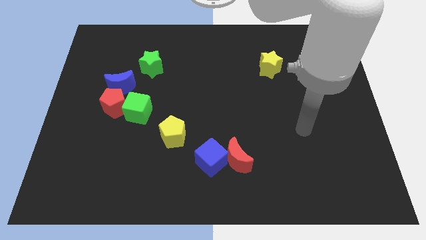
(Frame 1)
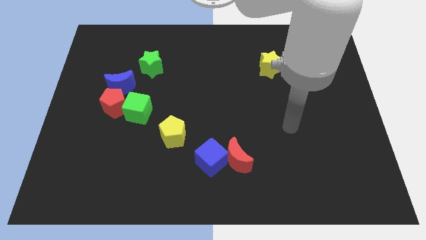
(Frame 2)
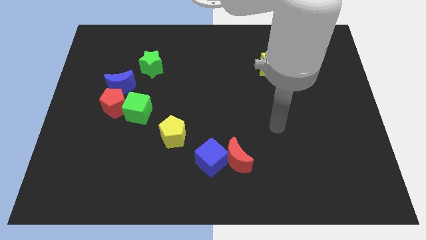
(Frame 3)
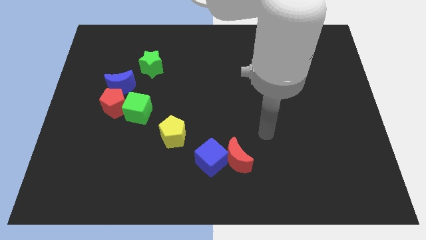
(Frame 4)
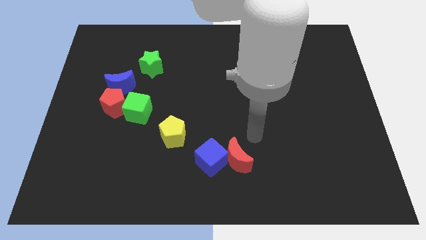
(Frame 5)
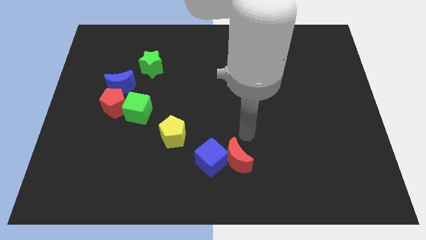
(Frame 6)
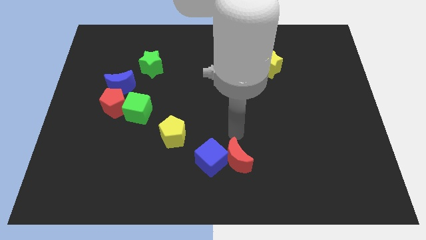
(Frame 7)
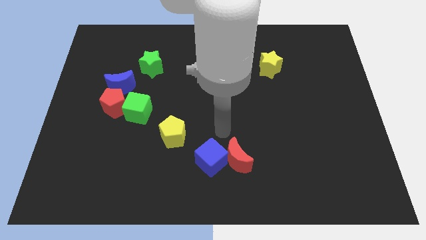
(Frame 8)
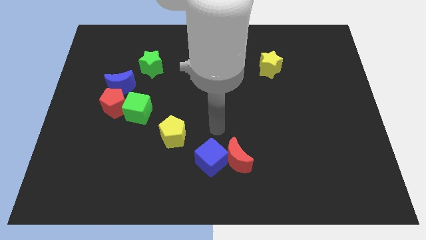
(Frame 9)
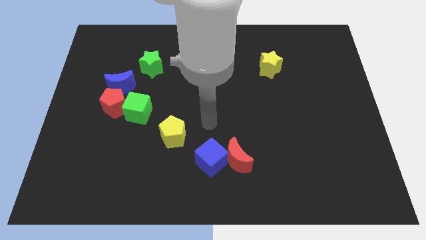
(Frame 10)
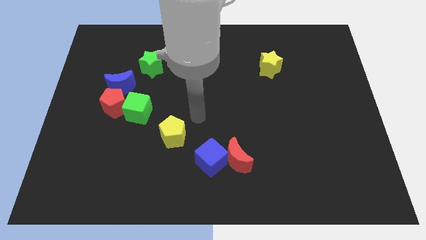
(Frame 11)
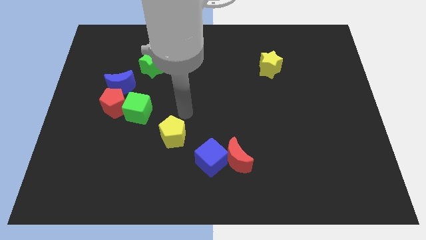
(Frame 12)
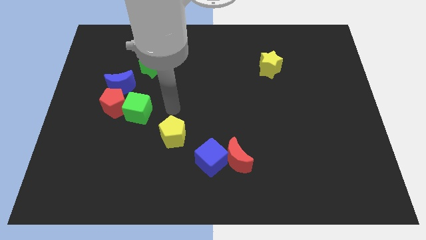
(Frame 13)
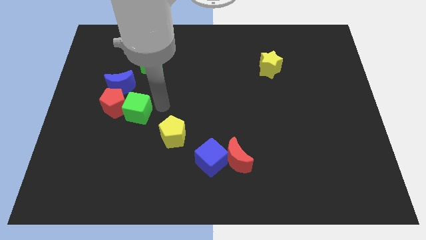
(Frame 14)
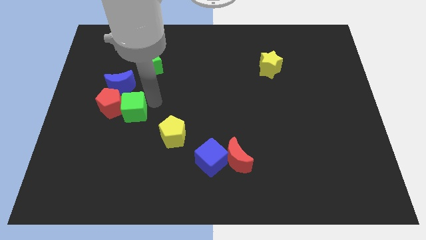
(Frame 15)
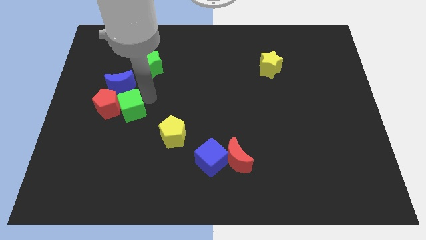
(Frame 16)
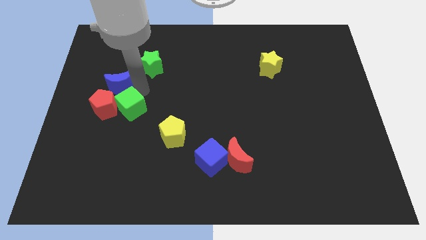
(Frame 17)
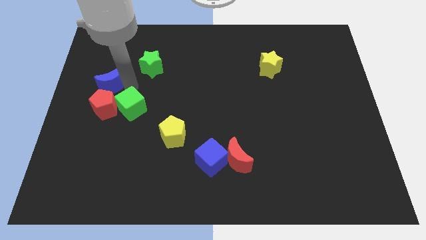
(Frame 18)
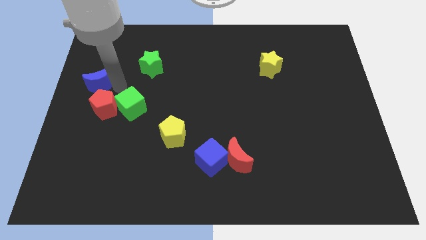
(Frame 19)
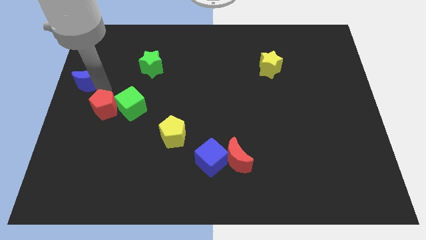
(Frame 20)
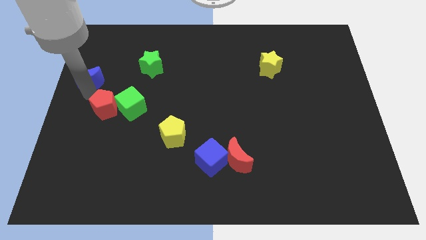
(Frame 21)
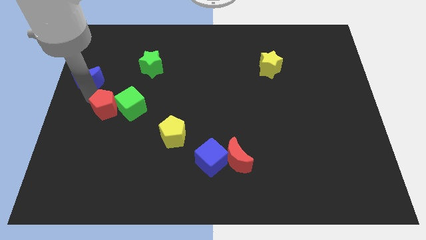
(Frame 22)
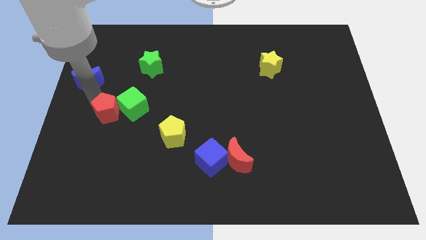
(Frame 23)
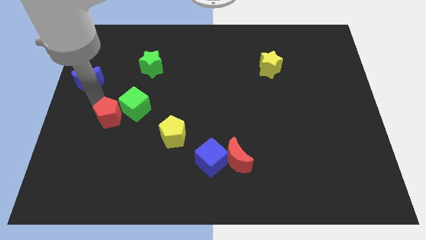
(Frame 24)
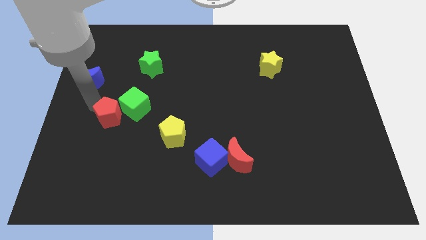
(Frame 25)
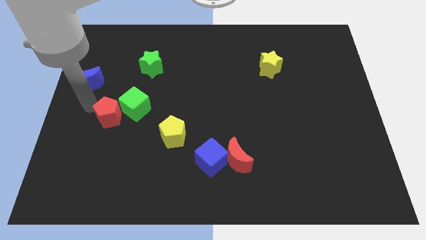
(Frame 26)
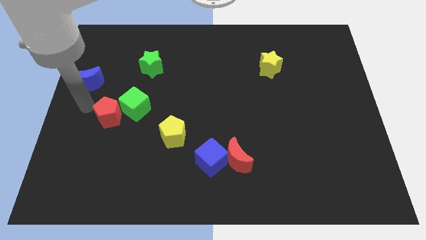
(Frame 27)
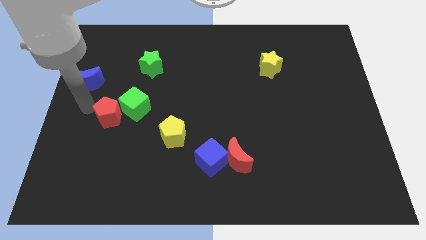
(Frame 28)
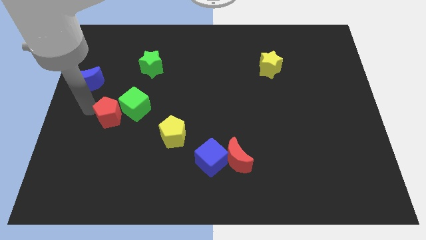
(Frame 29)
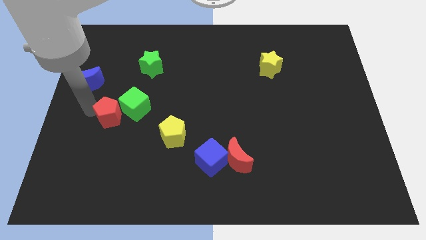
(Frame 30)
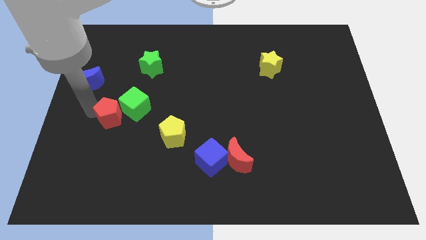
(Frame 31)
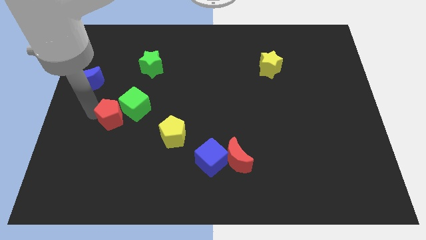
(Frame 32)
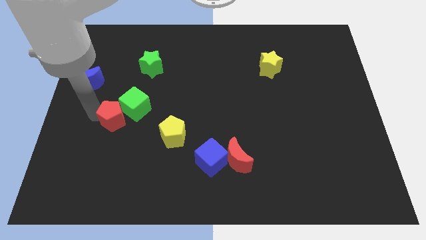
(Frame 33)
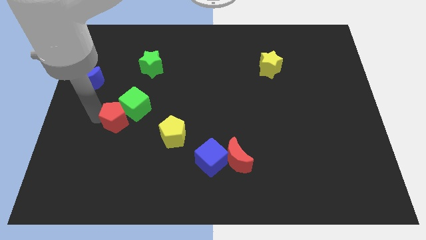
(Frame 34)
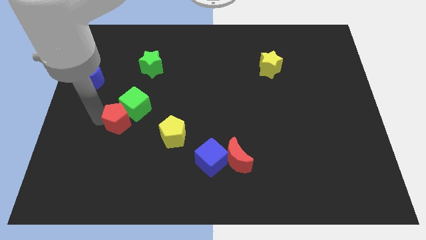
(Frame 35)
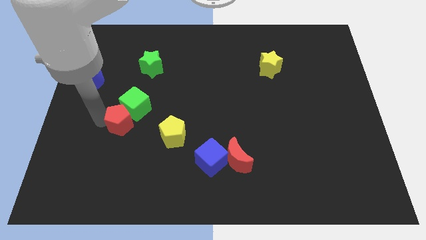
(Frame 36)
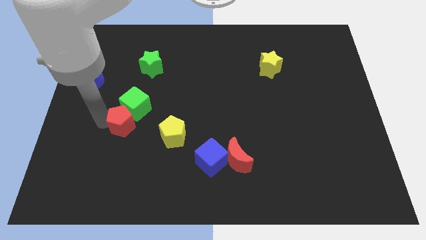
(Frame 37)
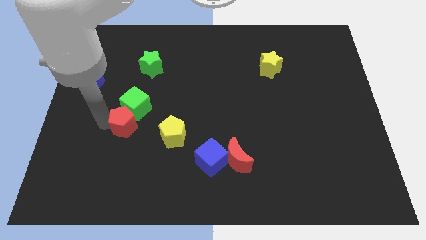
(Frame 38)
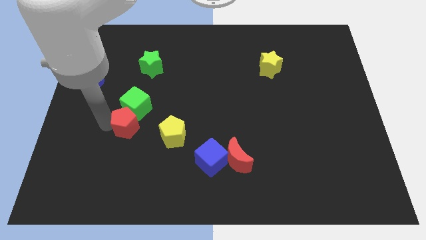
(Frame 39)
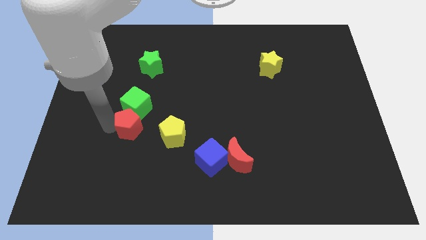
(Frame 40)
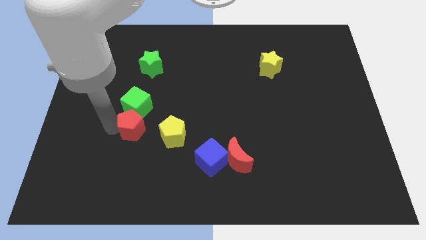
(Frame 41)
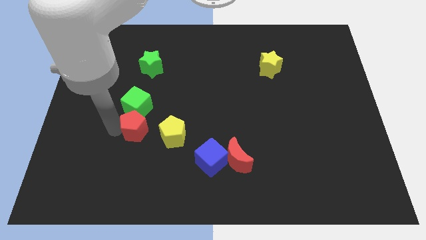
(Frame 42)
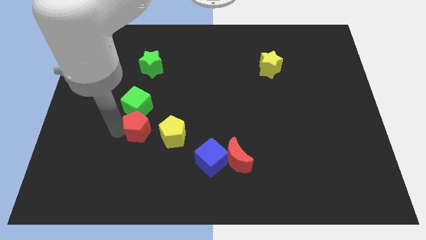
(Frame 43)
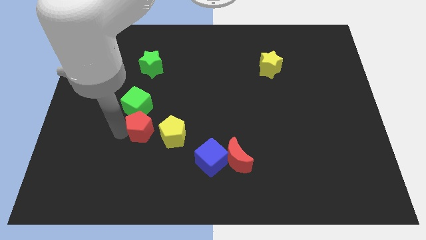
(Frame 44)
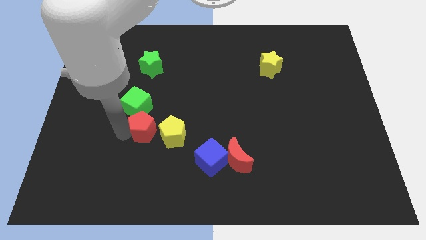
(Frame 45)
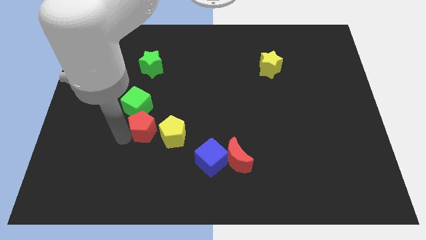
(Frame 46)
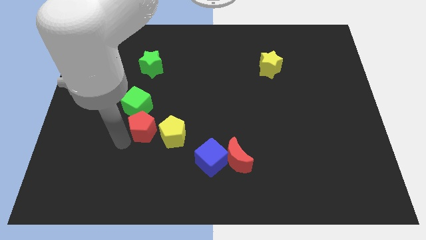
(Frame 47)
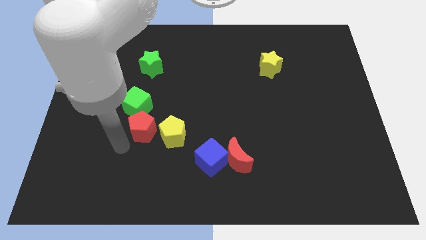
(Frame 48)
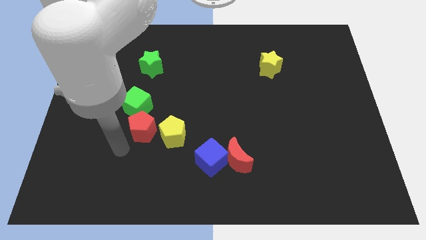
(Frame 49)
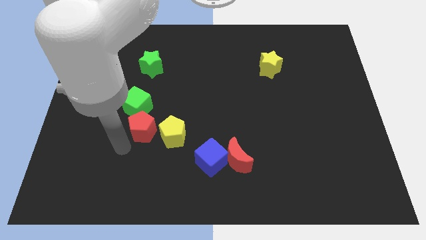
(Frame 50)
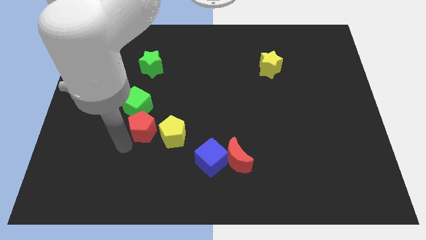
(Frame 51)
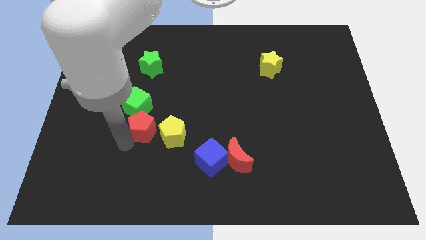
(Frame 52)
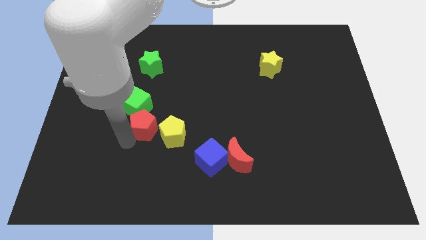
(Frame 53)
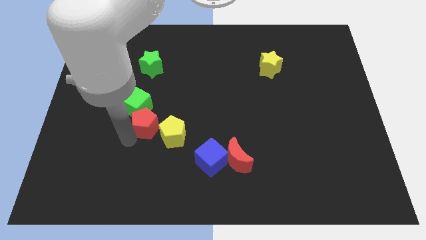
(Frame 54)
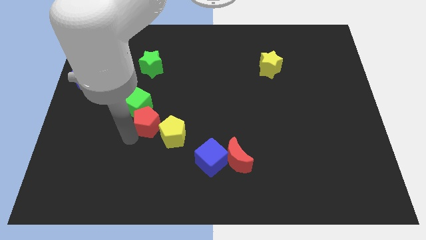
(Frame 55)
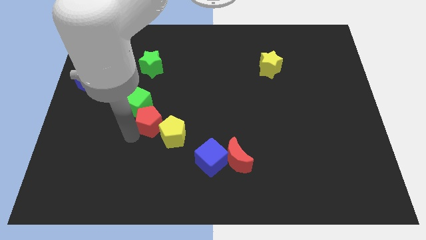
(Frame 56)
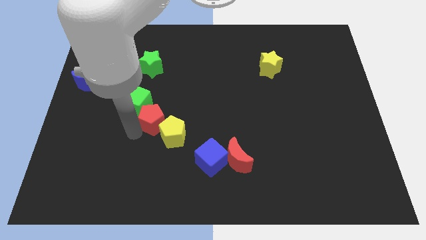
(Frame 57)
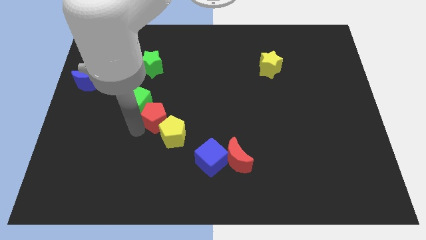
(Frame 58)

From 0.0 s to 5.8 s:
slide the red pentagon right of the green cube

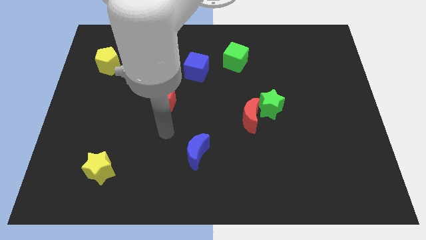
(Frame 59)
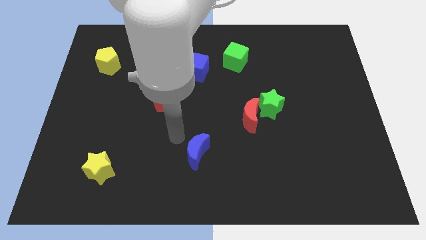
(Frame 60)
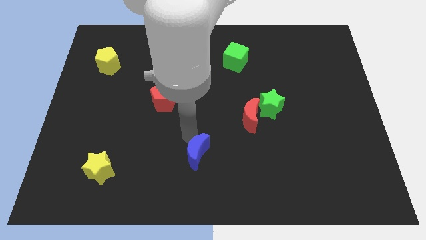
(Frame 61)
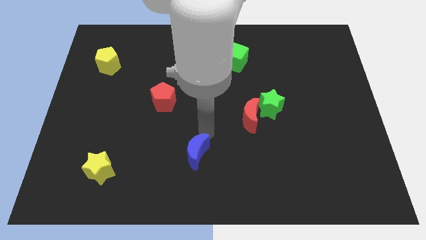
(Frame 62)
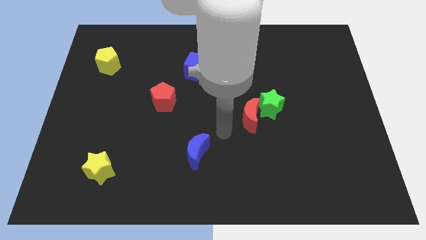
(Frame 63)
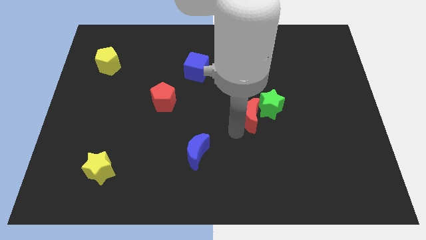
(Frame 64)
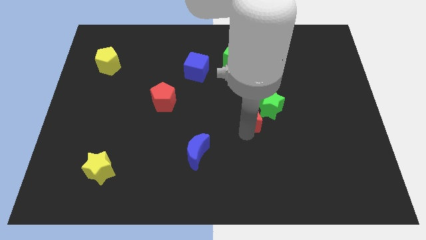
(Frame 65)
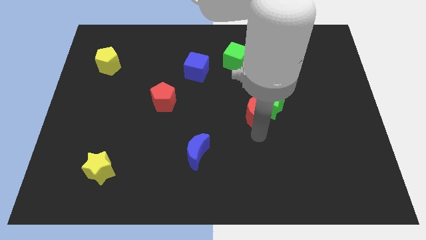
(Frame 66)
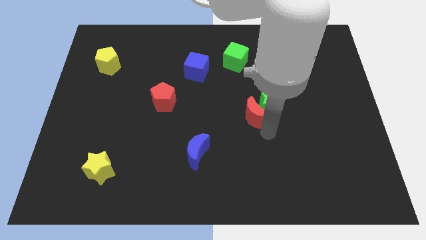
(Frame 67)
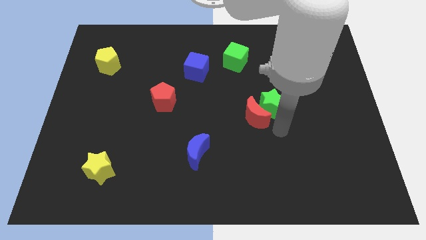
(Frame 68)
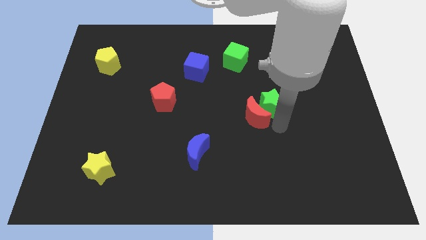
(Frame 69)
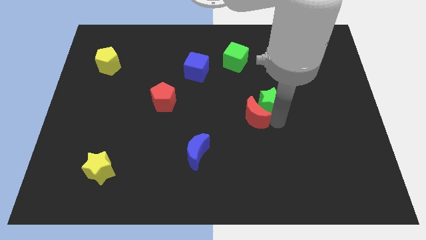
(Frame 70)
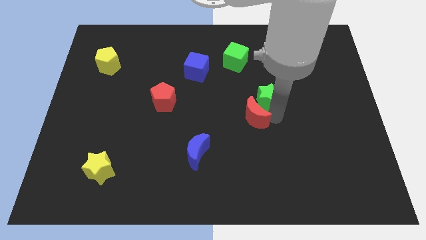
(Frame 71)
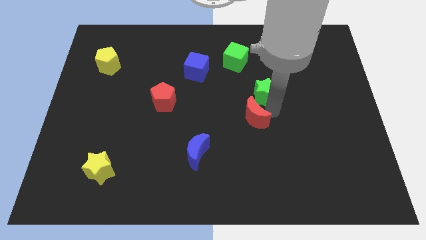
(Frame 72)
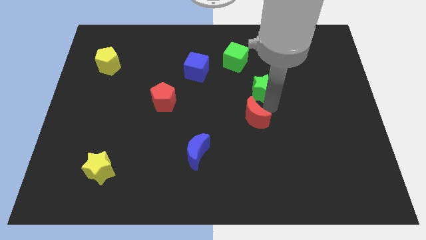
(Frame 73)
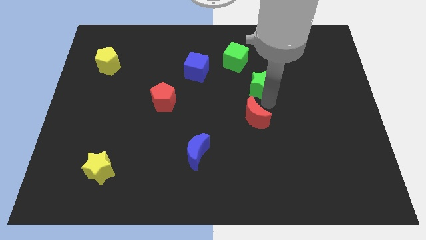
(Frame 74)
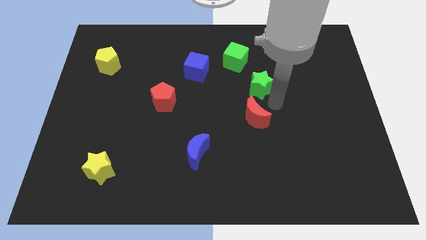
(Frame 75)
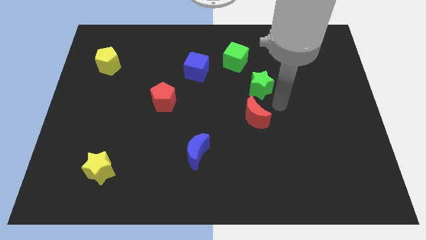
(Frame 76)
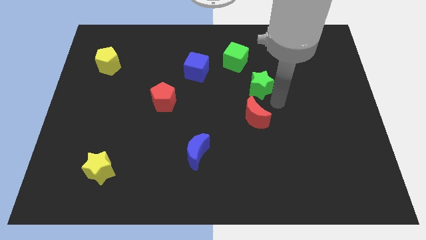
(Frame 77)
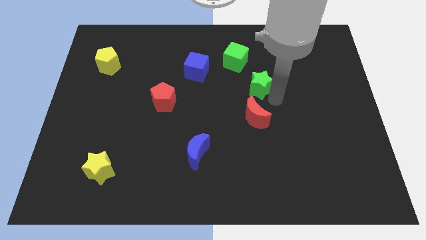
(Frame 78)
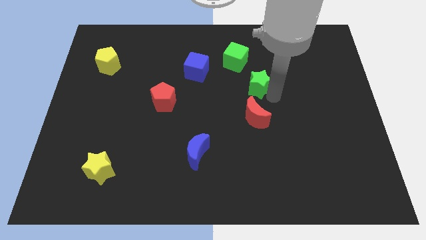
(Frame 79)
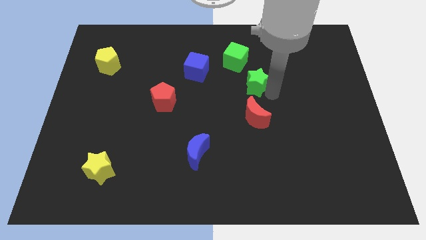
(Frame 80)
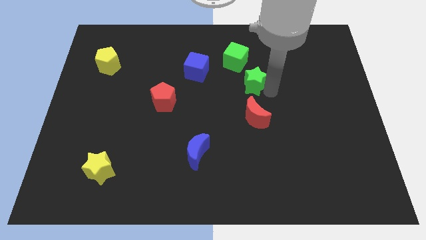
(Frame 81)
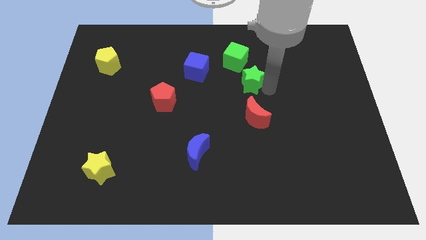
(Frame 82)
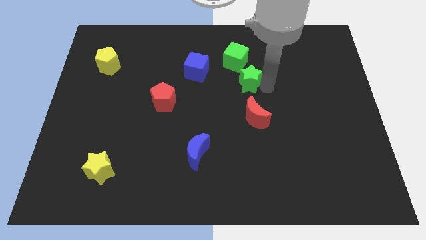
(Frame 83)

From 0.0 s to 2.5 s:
slide the green star right of the blue cube
